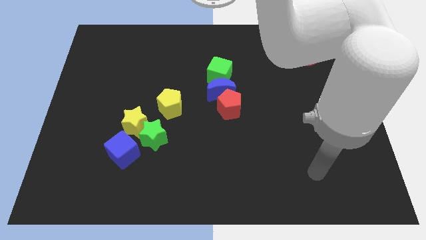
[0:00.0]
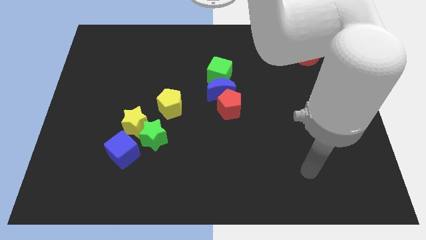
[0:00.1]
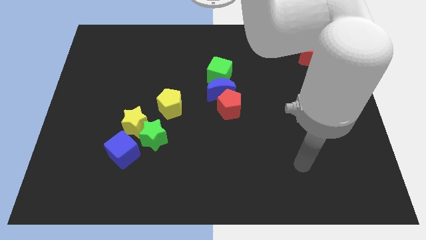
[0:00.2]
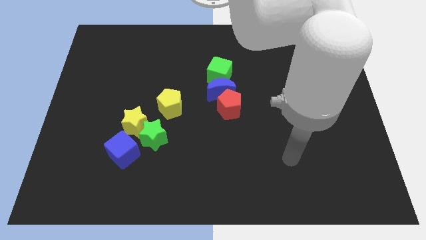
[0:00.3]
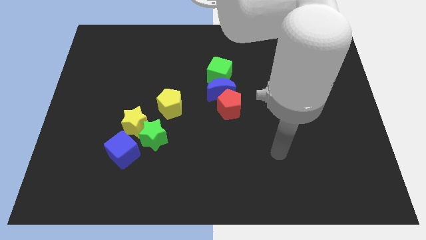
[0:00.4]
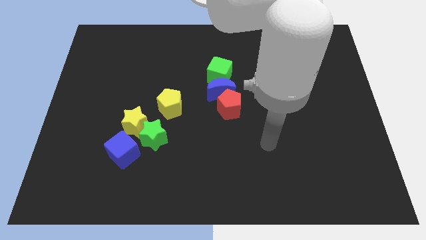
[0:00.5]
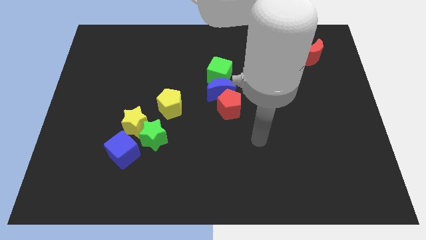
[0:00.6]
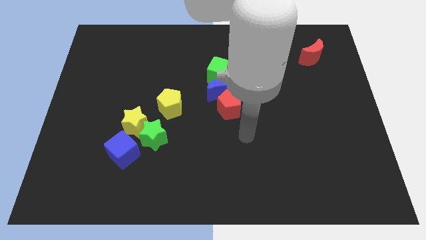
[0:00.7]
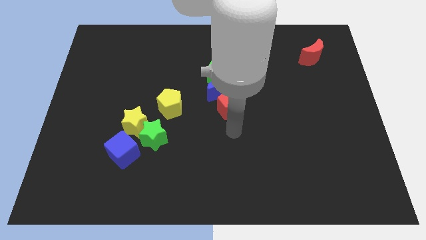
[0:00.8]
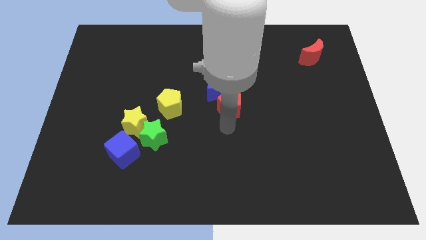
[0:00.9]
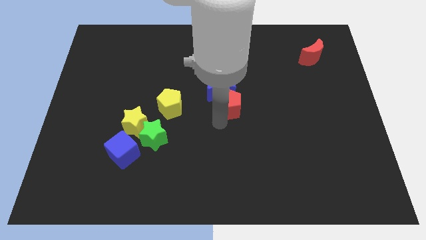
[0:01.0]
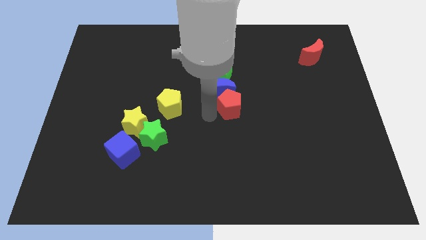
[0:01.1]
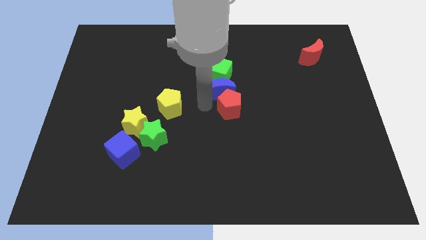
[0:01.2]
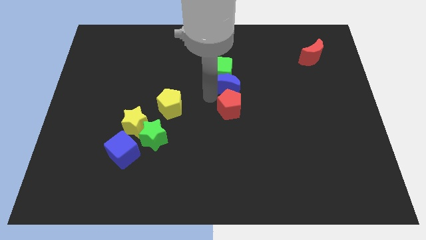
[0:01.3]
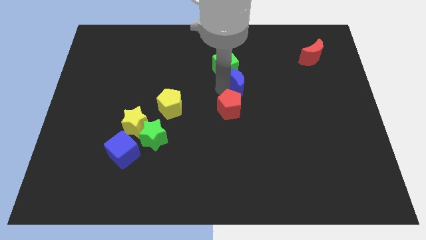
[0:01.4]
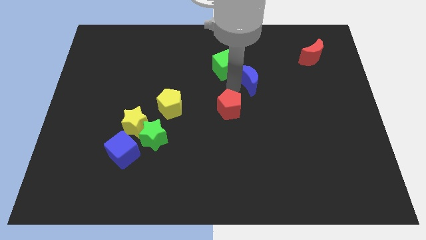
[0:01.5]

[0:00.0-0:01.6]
separate the red pentagon from the blue moon

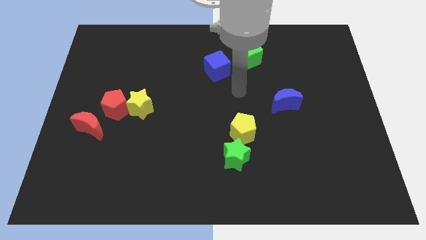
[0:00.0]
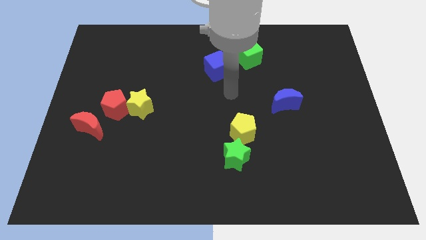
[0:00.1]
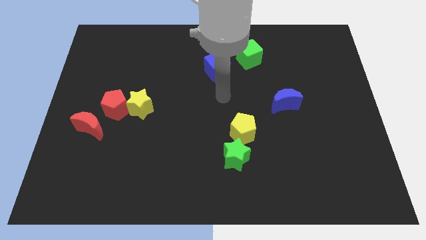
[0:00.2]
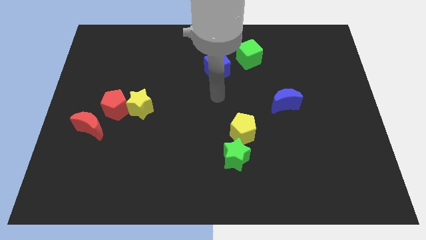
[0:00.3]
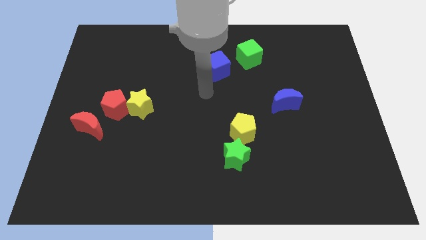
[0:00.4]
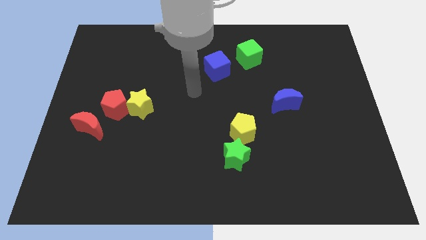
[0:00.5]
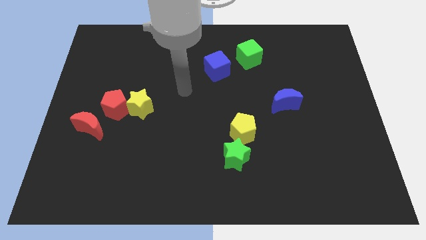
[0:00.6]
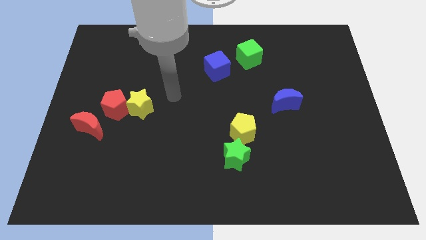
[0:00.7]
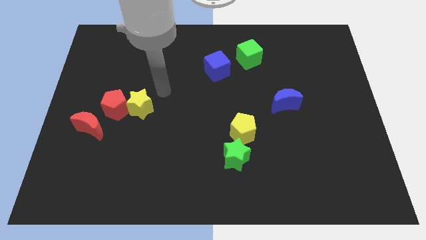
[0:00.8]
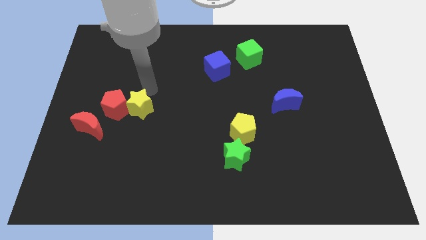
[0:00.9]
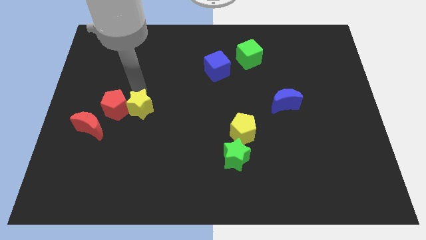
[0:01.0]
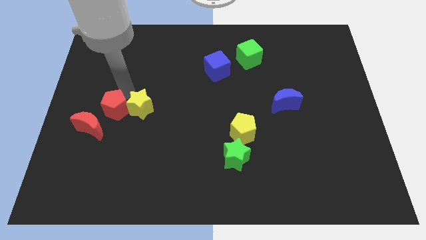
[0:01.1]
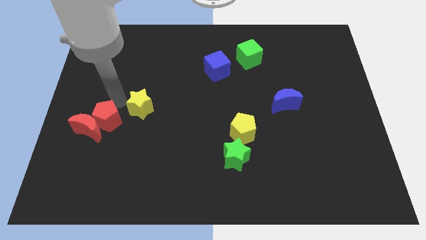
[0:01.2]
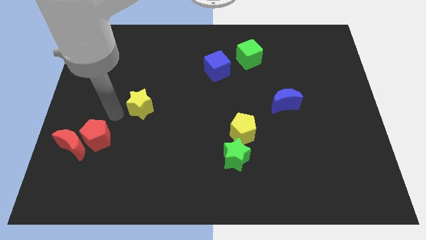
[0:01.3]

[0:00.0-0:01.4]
move the yellow star away from the red pentagon

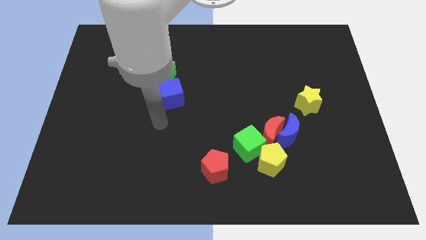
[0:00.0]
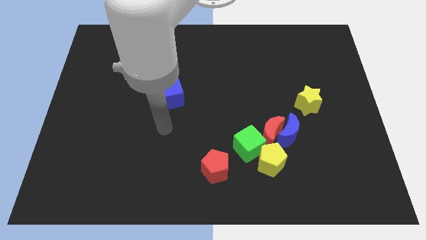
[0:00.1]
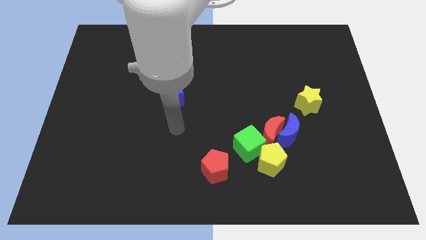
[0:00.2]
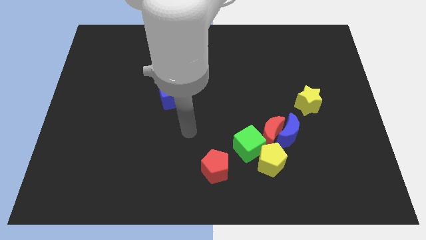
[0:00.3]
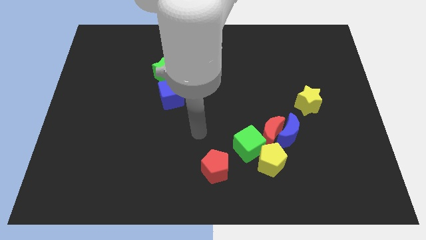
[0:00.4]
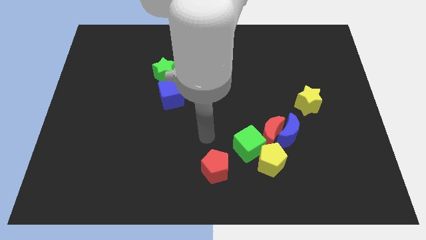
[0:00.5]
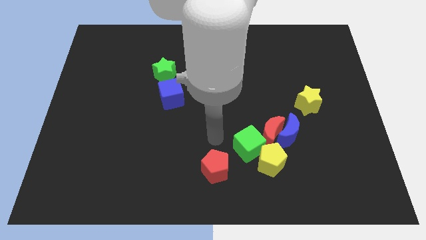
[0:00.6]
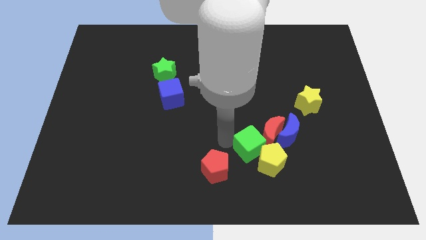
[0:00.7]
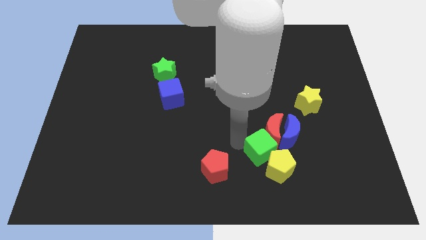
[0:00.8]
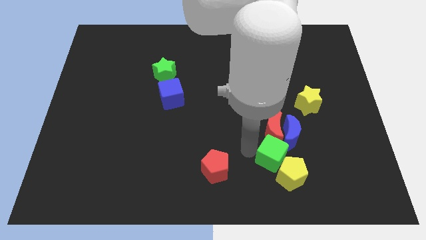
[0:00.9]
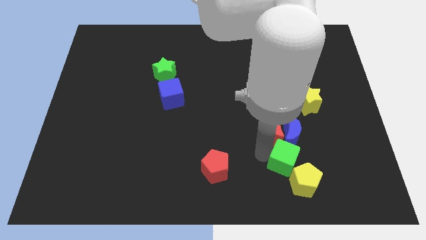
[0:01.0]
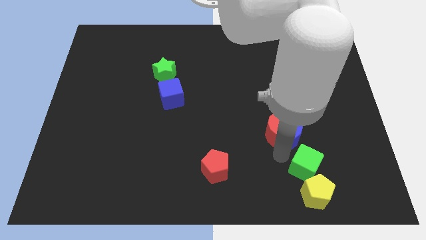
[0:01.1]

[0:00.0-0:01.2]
pull the red moon apart from the clump

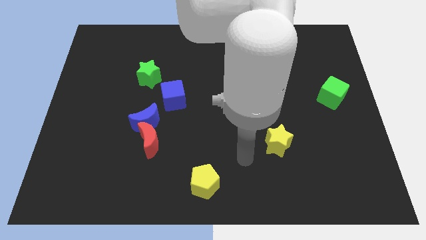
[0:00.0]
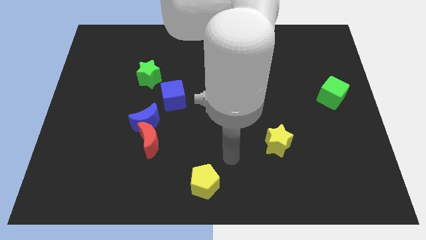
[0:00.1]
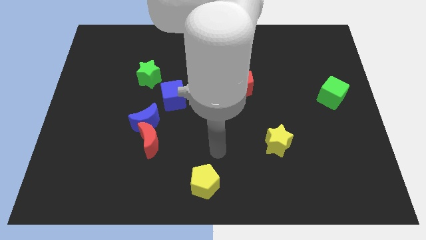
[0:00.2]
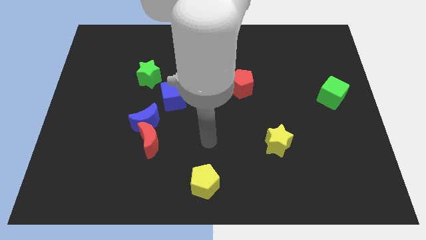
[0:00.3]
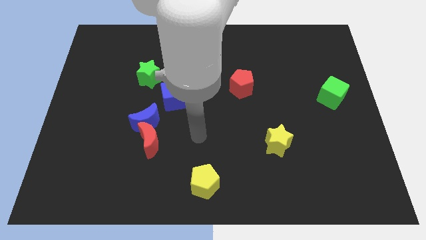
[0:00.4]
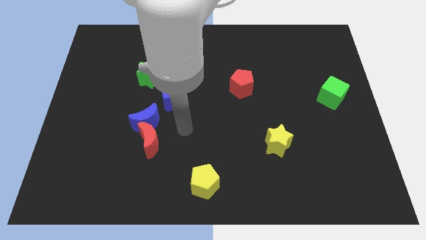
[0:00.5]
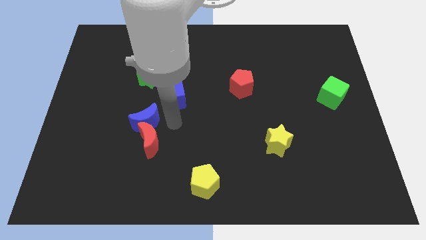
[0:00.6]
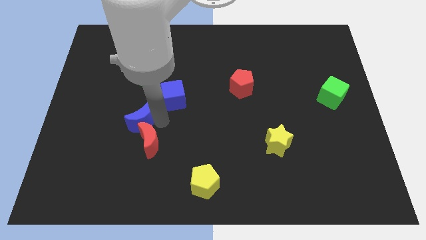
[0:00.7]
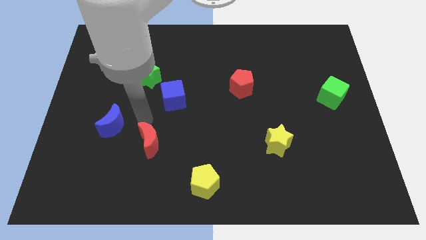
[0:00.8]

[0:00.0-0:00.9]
move the red moon away from the blue moon

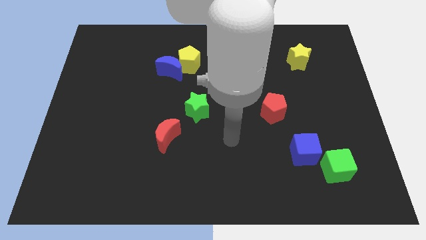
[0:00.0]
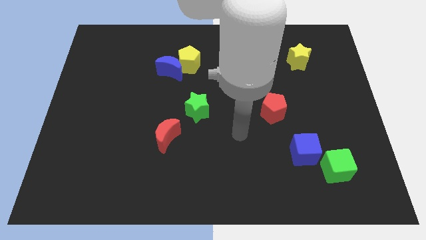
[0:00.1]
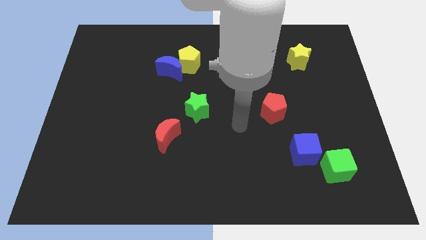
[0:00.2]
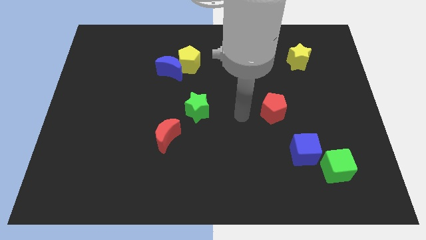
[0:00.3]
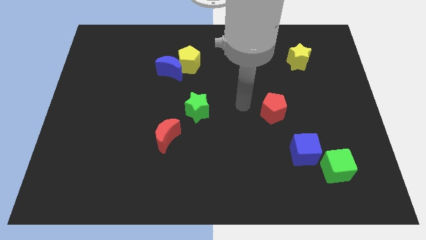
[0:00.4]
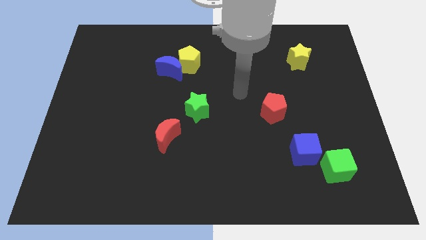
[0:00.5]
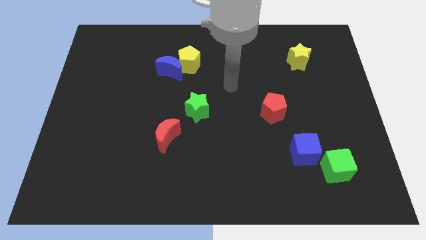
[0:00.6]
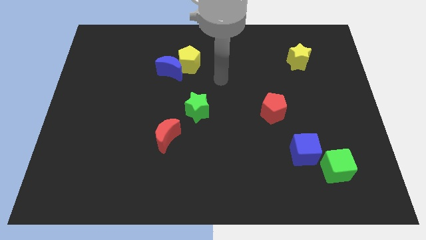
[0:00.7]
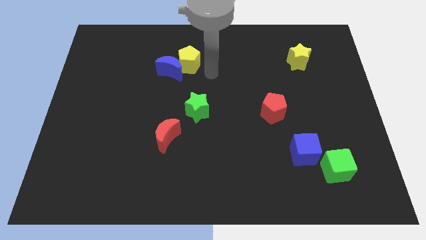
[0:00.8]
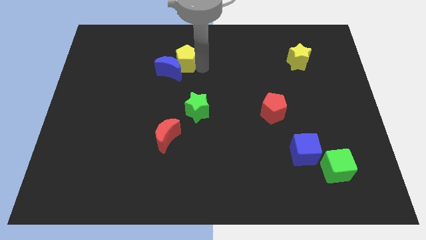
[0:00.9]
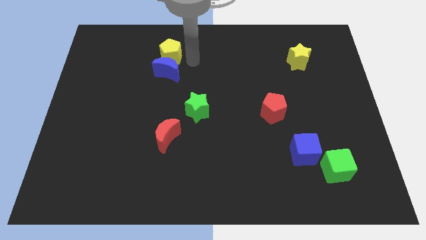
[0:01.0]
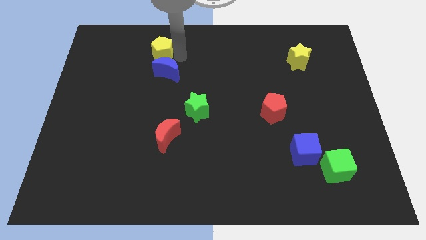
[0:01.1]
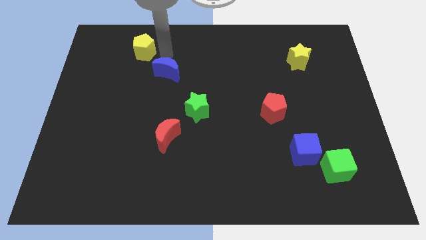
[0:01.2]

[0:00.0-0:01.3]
move the blue moon away from the yellow pentagon

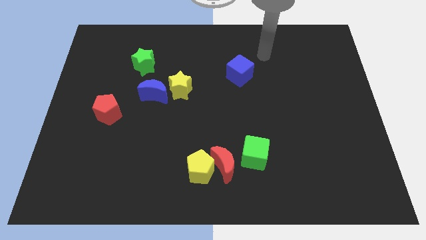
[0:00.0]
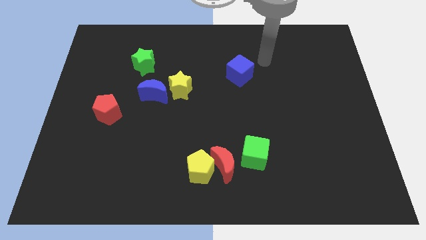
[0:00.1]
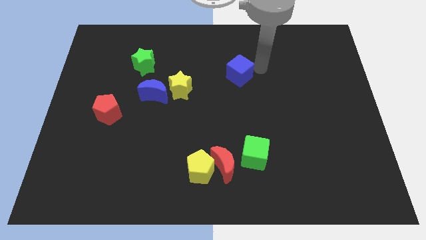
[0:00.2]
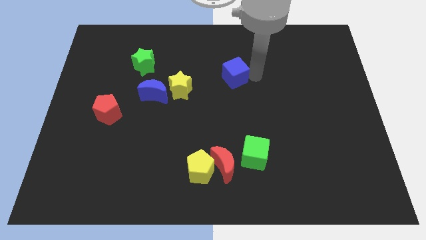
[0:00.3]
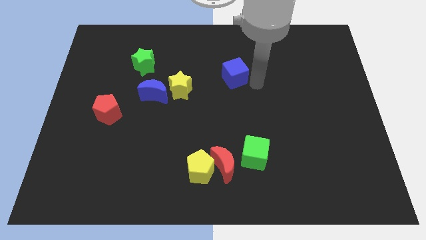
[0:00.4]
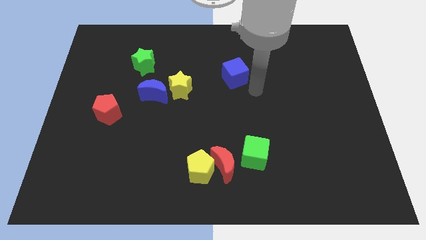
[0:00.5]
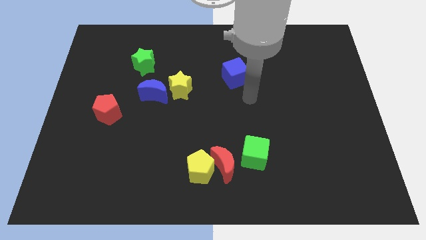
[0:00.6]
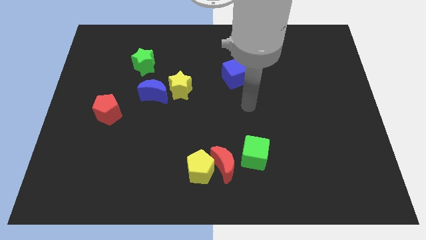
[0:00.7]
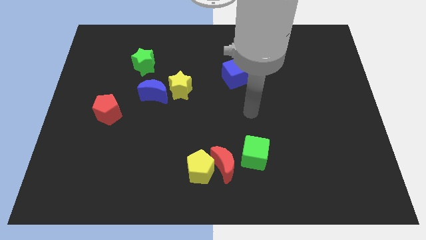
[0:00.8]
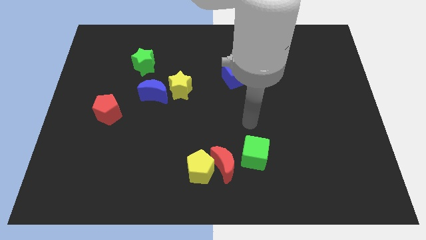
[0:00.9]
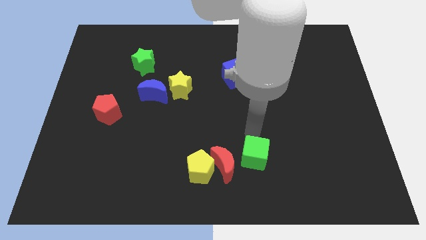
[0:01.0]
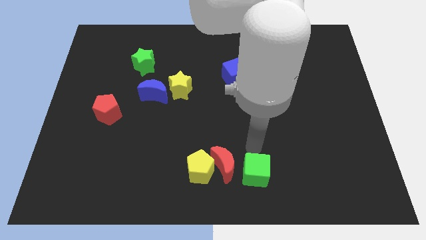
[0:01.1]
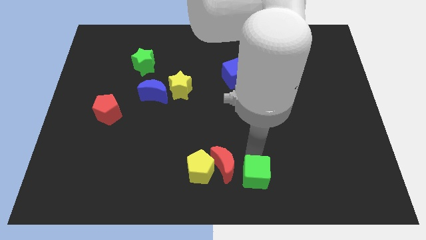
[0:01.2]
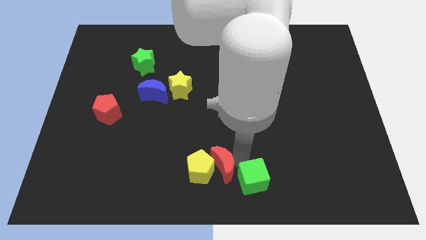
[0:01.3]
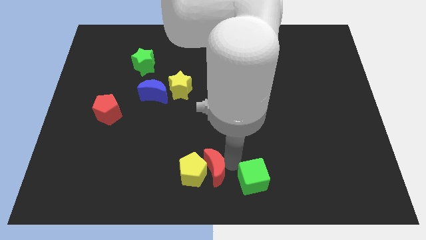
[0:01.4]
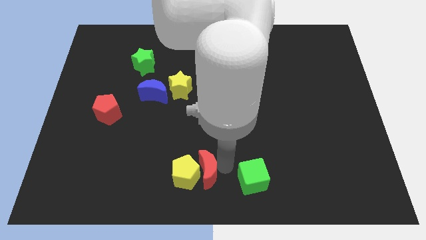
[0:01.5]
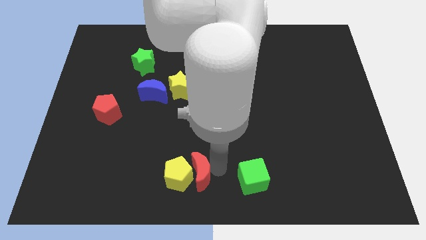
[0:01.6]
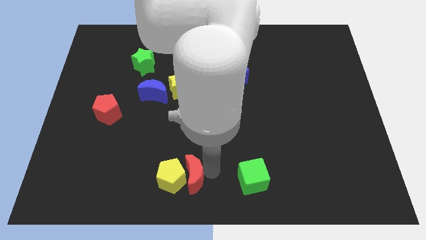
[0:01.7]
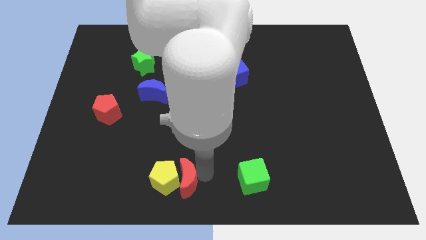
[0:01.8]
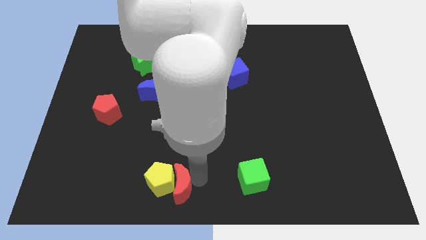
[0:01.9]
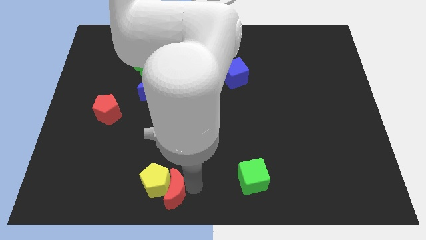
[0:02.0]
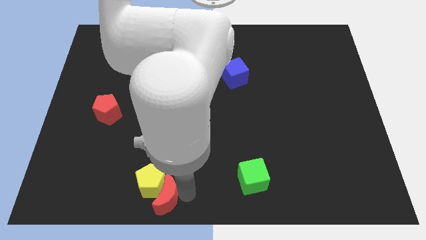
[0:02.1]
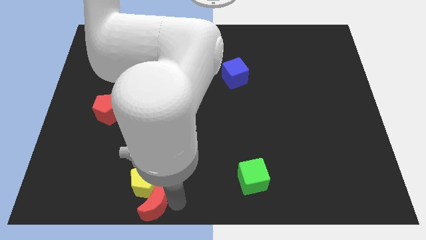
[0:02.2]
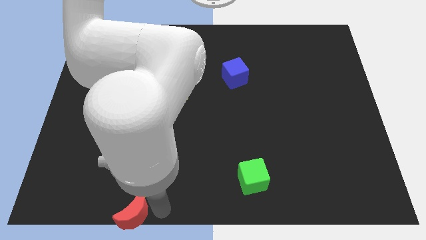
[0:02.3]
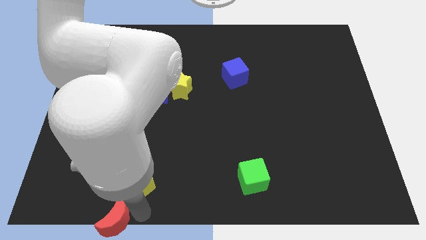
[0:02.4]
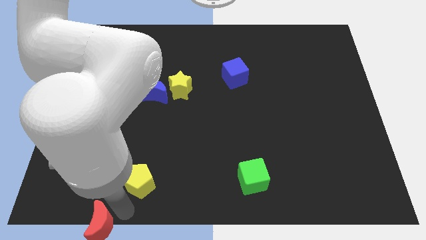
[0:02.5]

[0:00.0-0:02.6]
move the yellow pentagon away from the red moon

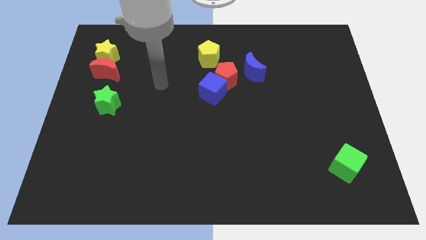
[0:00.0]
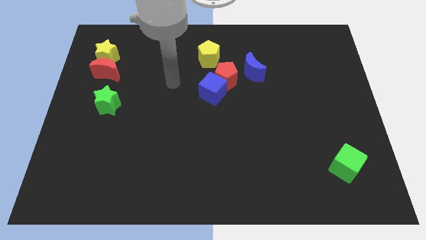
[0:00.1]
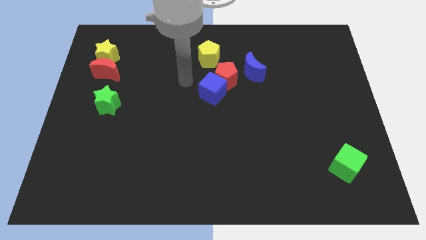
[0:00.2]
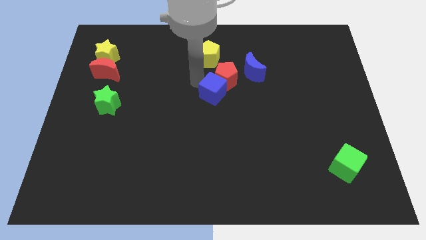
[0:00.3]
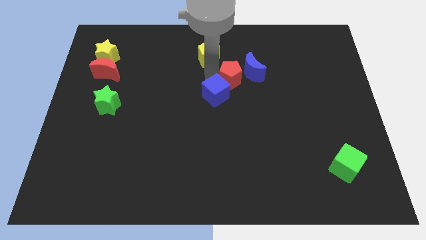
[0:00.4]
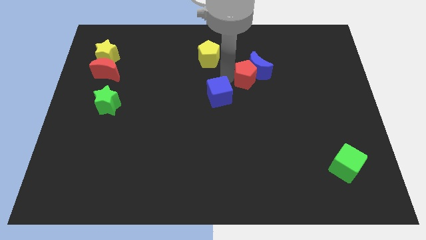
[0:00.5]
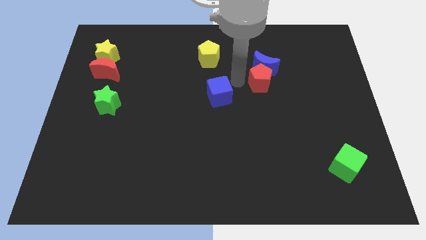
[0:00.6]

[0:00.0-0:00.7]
pull the blue cube apart from the red pentagon
